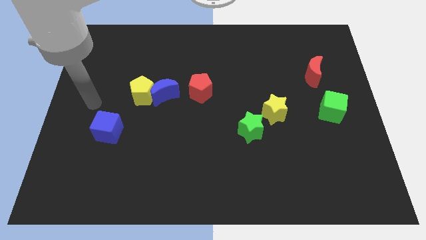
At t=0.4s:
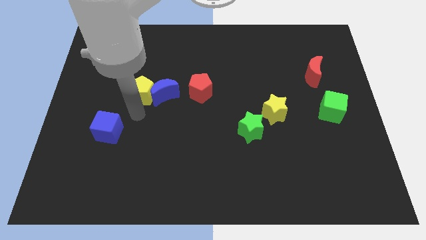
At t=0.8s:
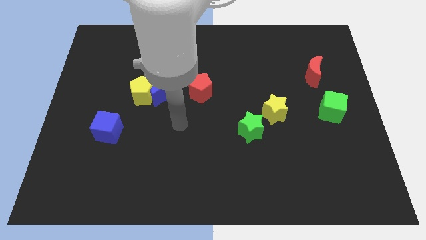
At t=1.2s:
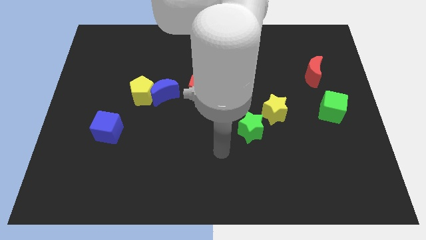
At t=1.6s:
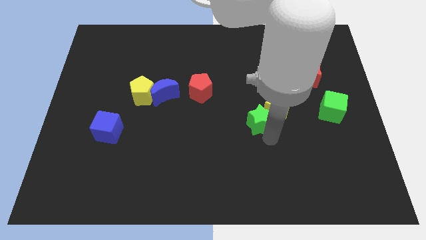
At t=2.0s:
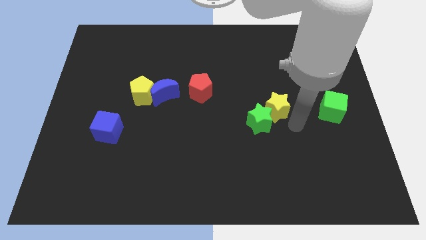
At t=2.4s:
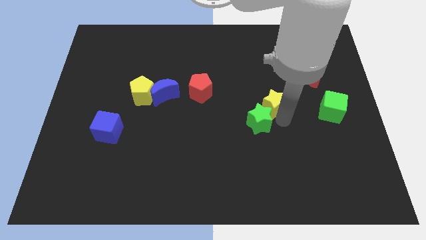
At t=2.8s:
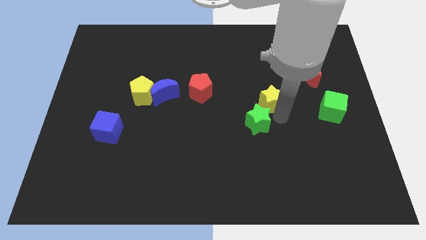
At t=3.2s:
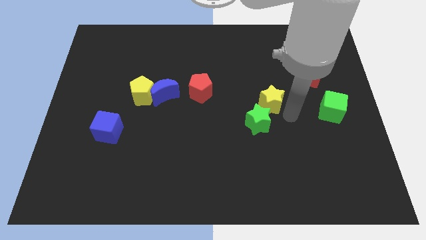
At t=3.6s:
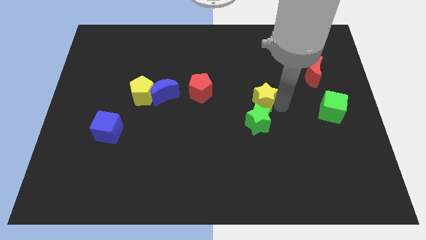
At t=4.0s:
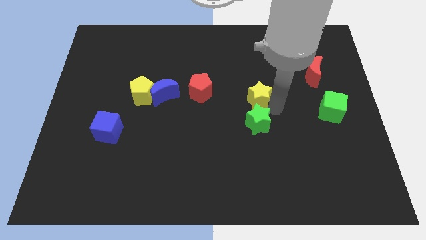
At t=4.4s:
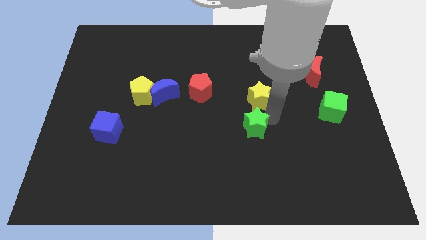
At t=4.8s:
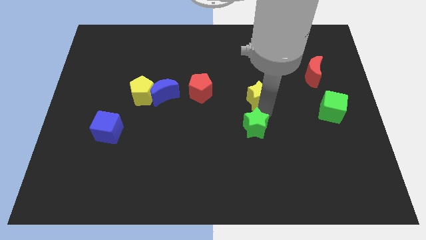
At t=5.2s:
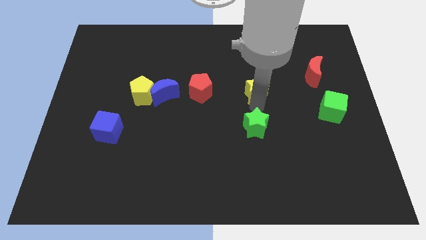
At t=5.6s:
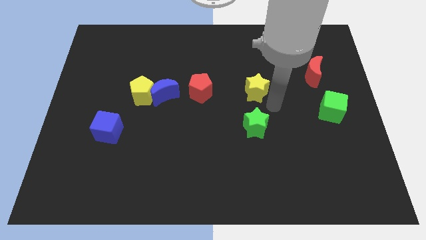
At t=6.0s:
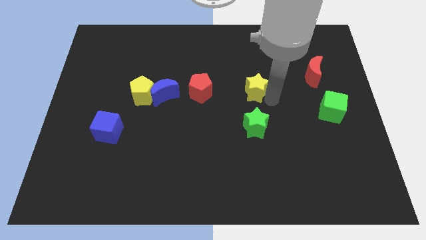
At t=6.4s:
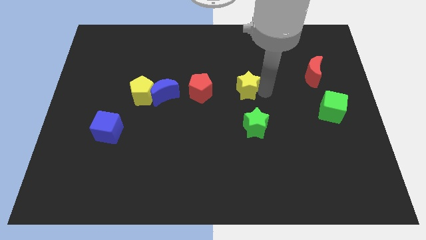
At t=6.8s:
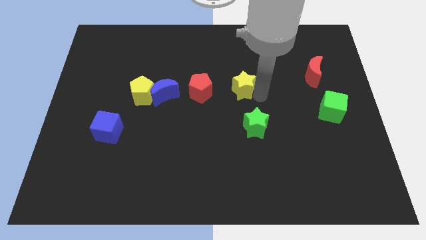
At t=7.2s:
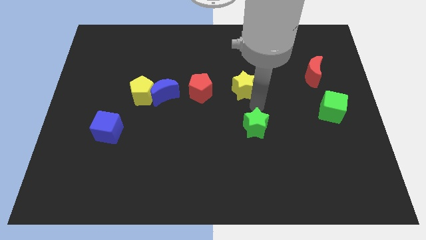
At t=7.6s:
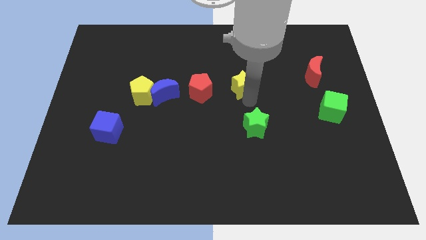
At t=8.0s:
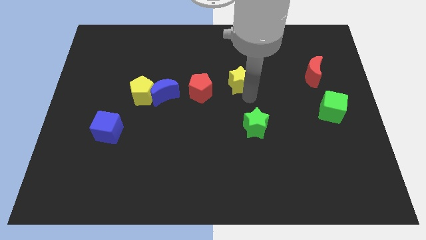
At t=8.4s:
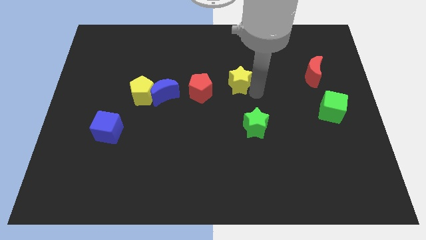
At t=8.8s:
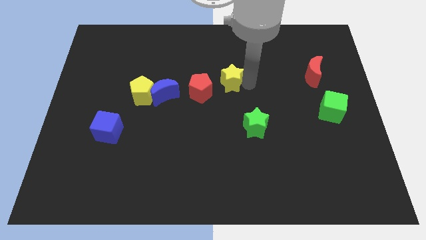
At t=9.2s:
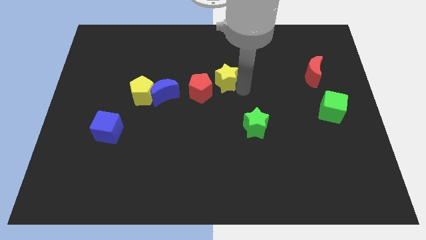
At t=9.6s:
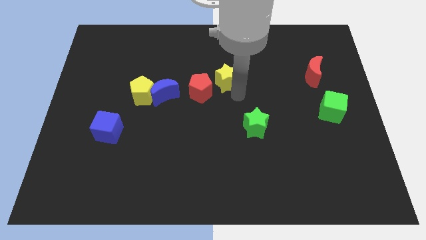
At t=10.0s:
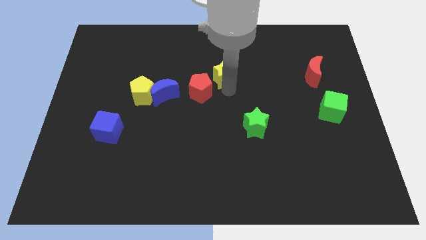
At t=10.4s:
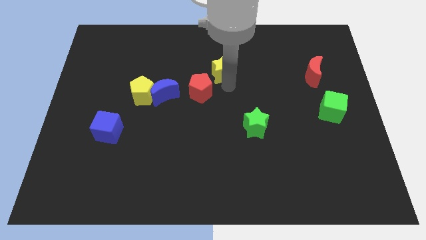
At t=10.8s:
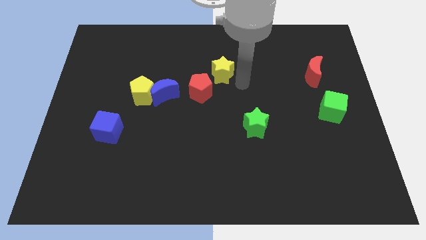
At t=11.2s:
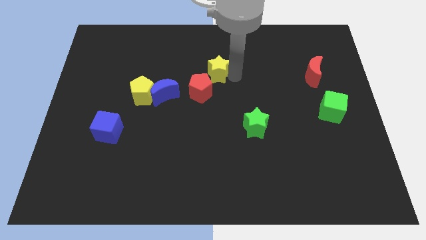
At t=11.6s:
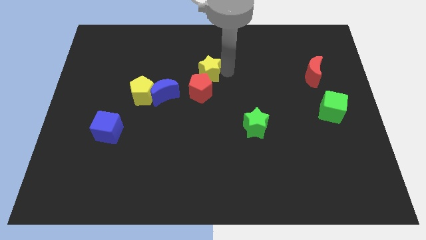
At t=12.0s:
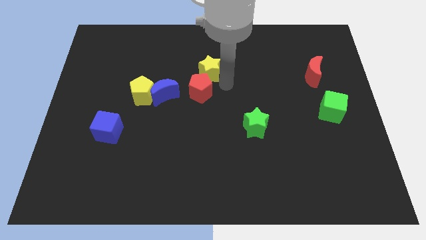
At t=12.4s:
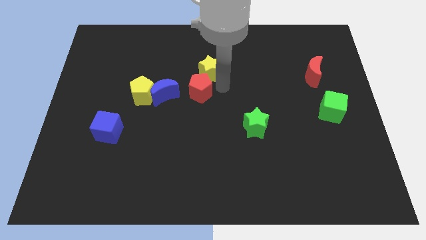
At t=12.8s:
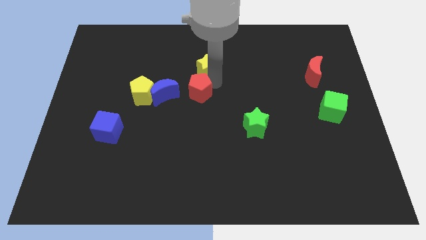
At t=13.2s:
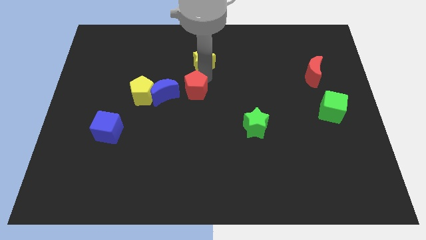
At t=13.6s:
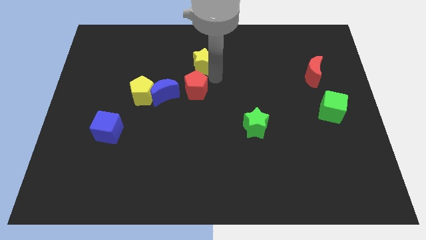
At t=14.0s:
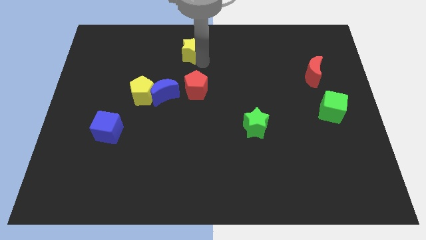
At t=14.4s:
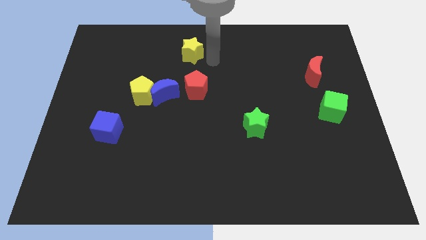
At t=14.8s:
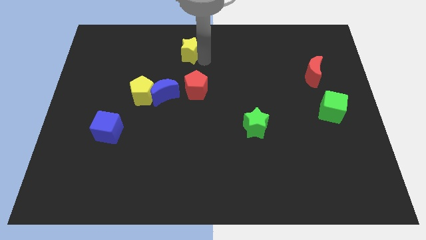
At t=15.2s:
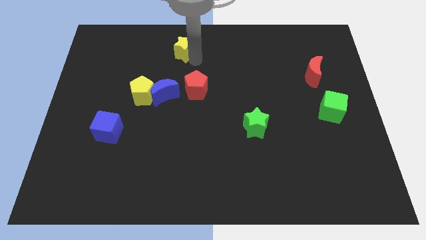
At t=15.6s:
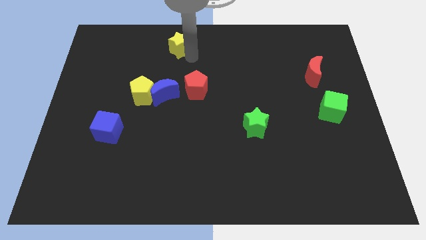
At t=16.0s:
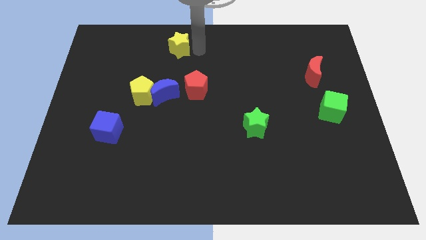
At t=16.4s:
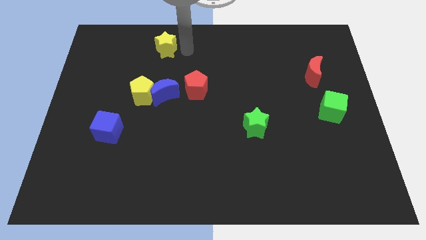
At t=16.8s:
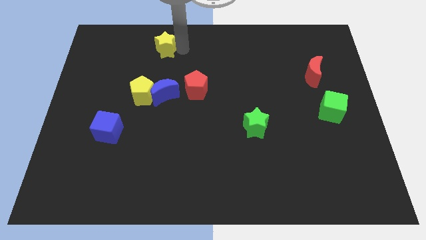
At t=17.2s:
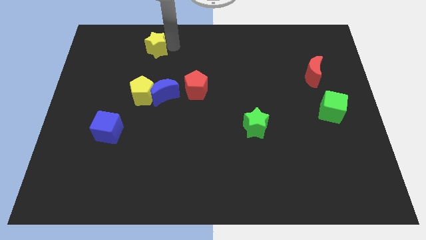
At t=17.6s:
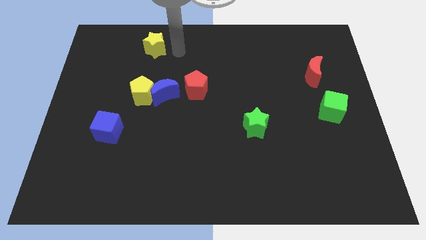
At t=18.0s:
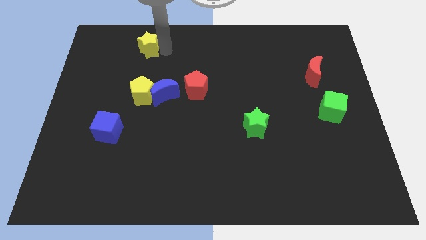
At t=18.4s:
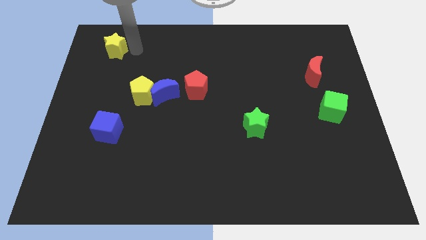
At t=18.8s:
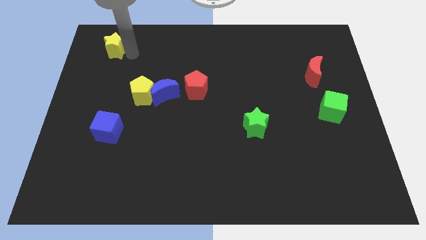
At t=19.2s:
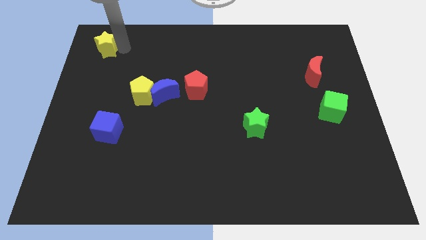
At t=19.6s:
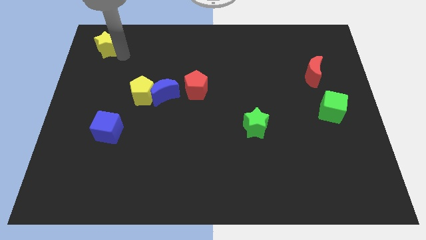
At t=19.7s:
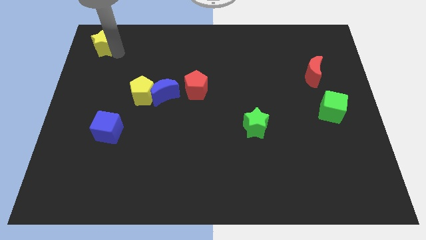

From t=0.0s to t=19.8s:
slide the yellow star to the top left
